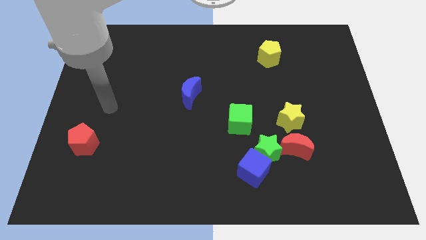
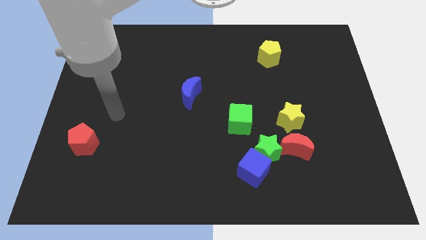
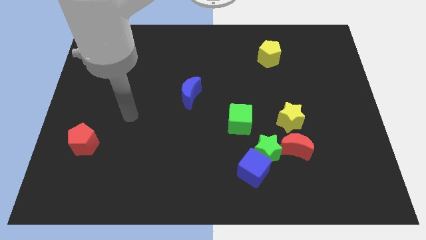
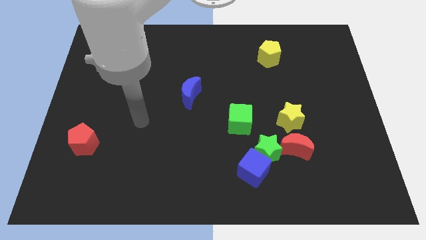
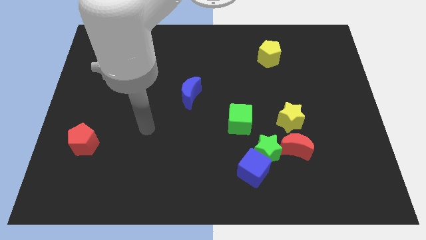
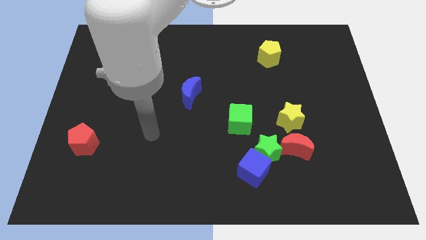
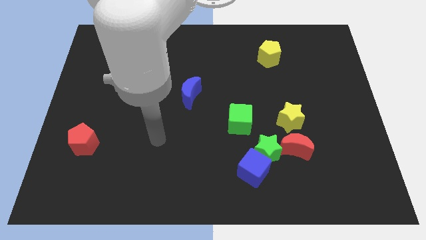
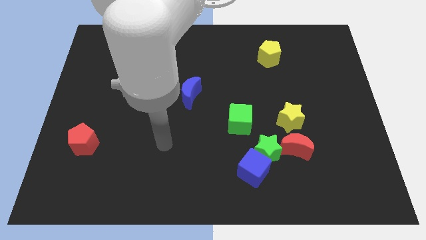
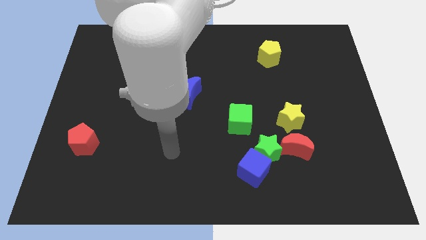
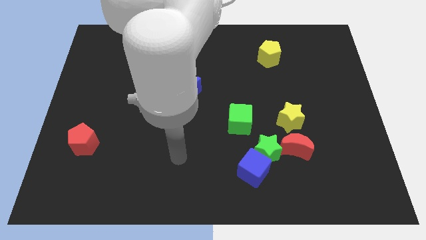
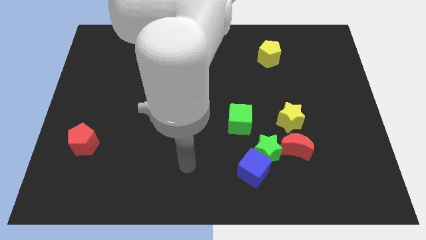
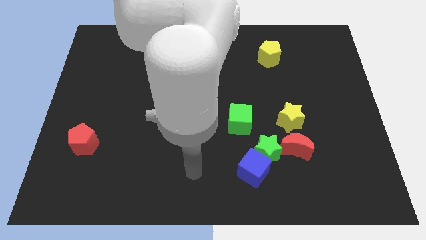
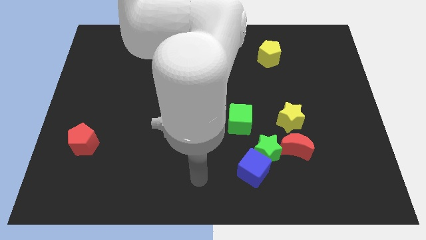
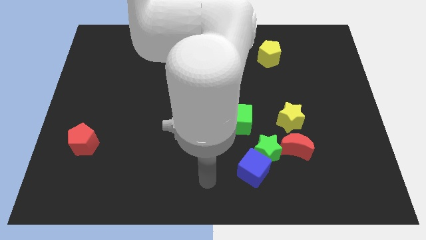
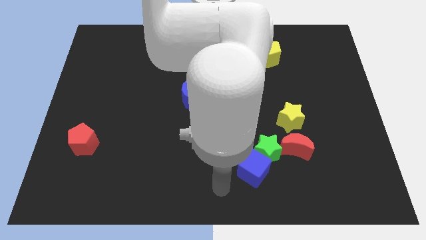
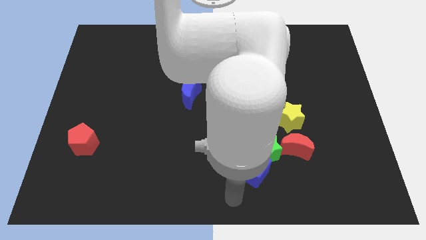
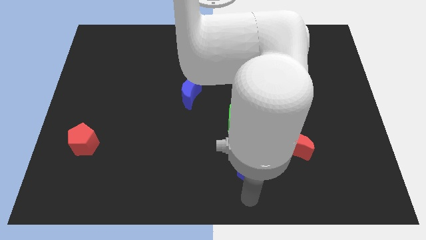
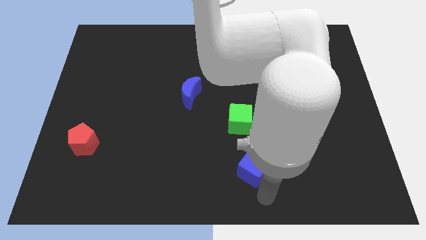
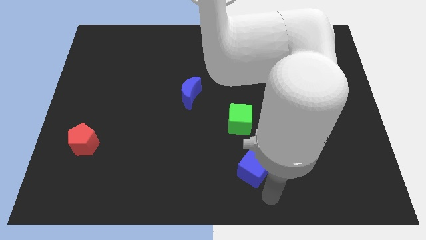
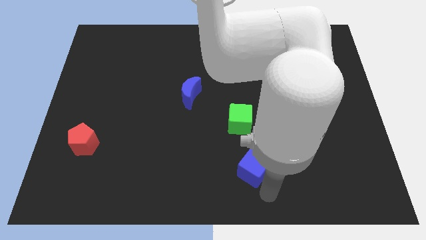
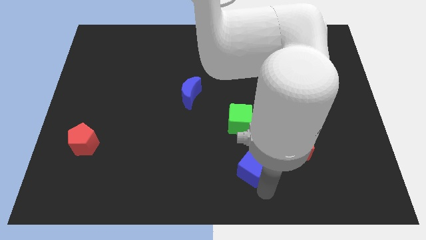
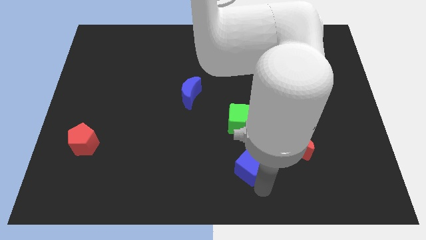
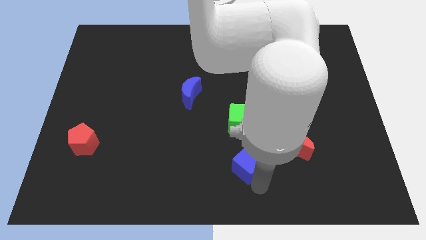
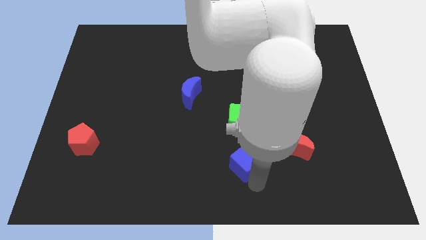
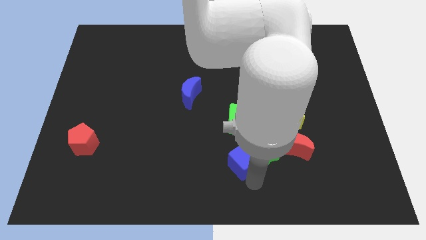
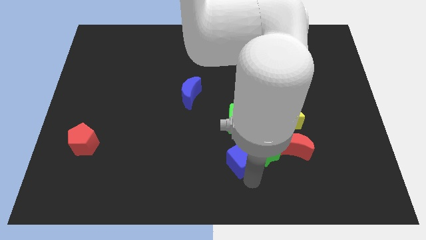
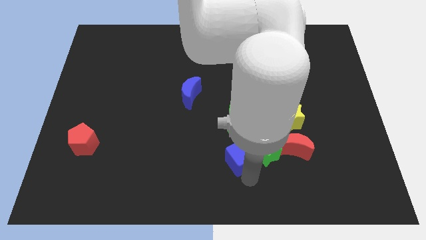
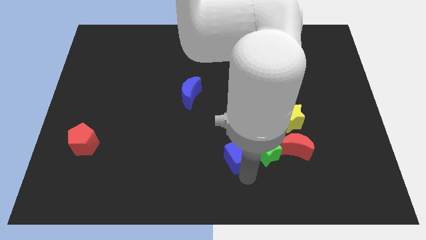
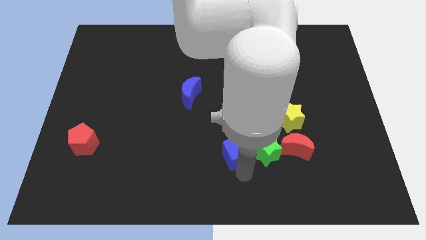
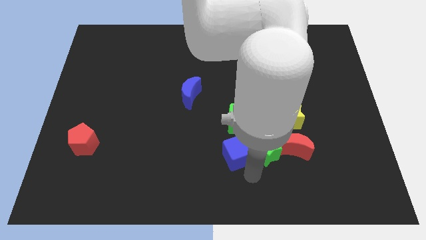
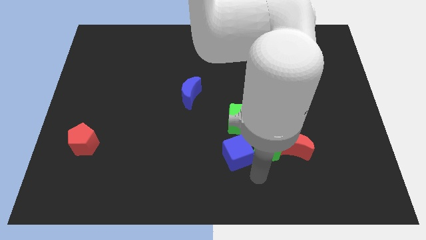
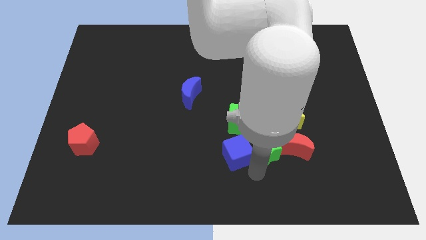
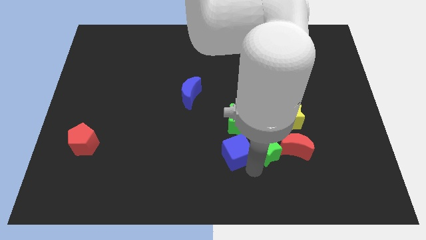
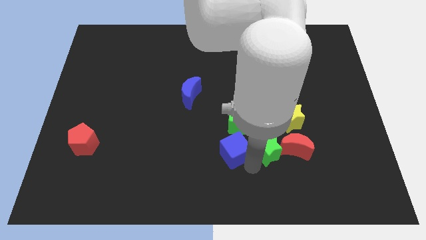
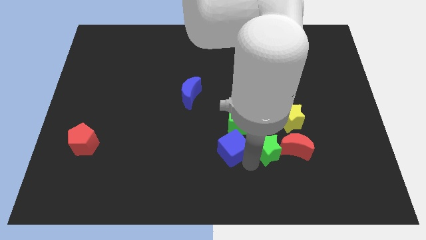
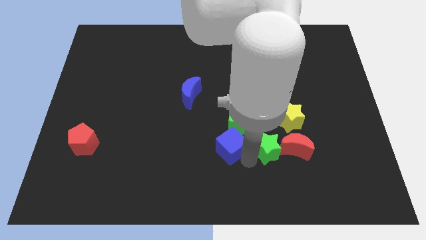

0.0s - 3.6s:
slide the blue cube upwards and left a little bit

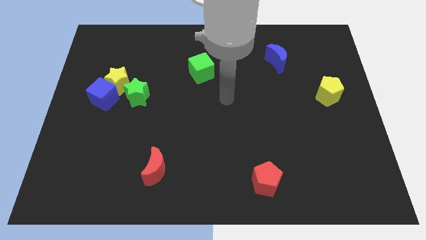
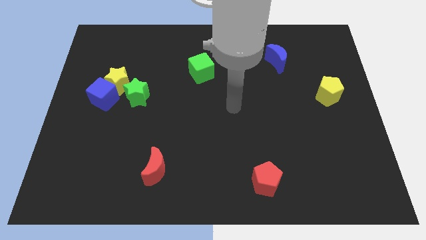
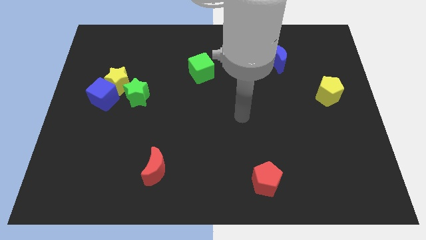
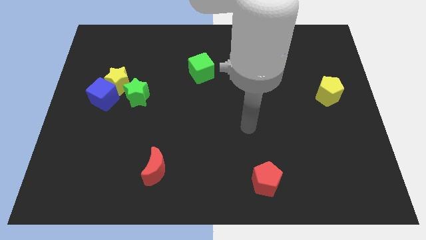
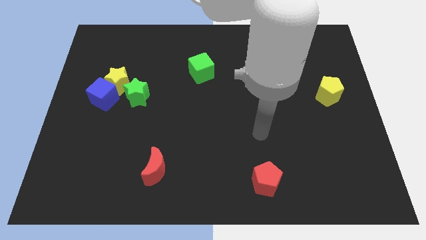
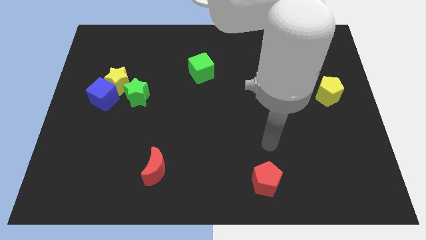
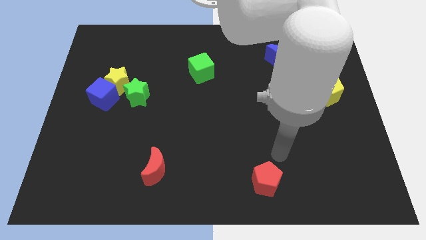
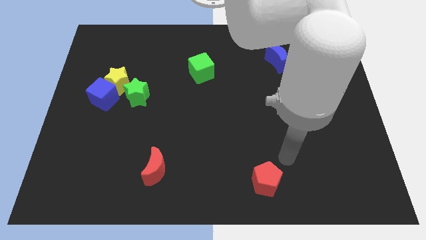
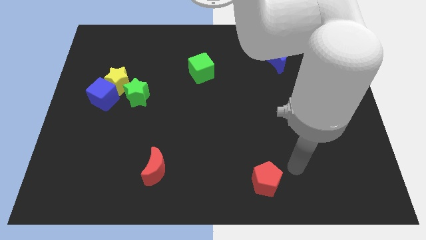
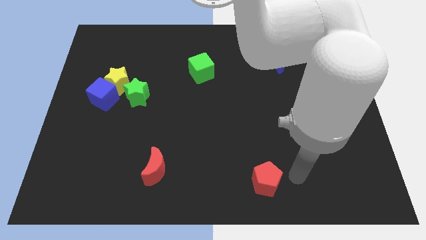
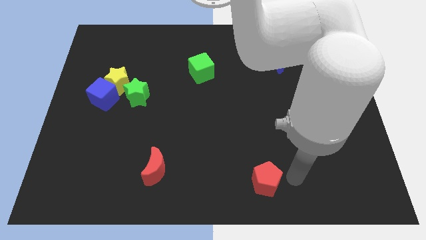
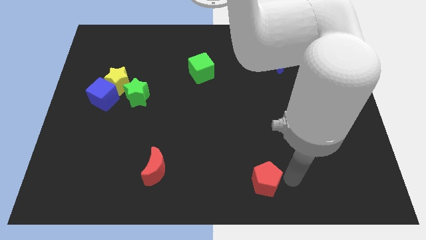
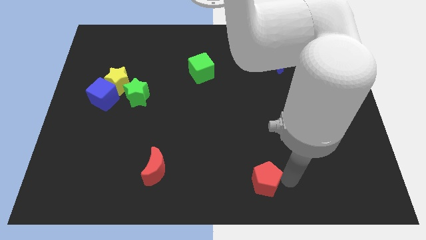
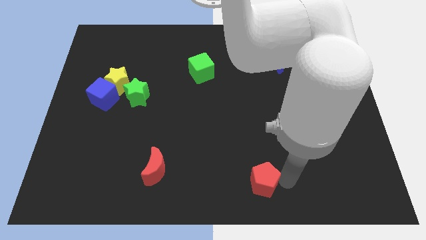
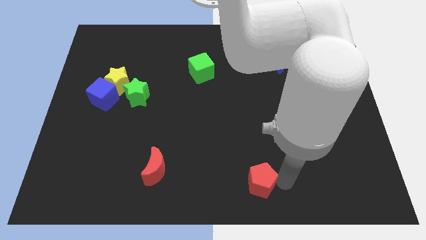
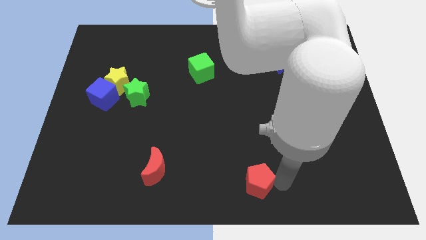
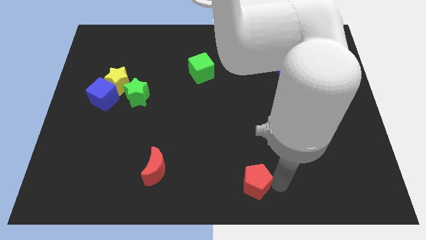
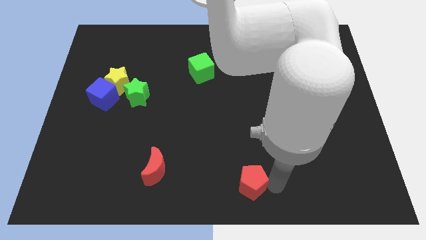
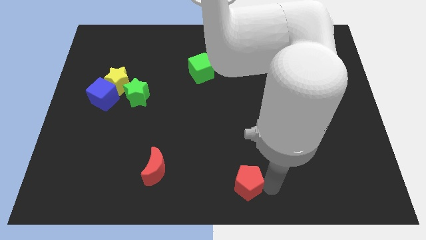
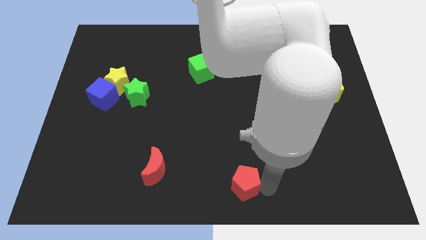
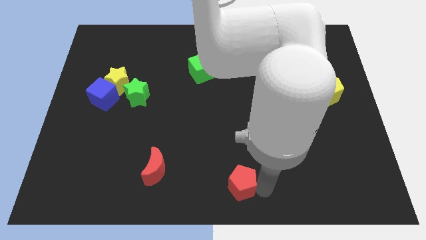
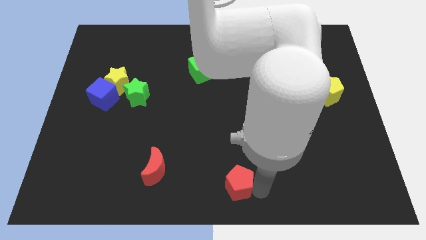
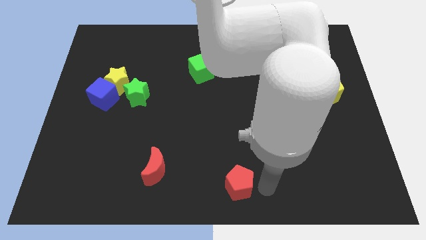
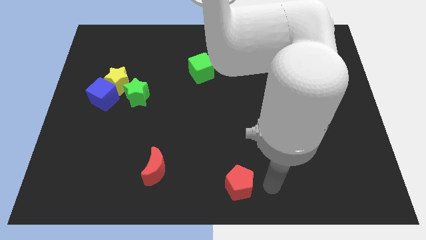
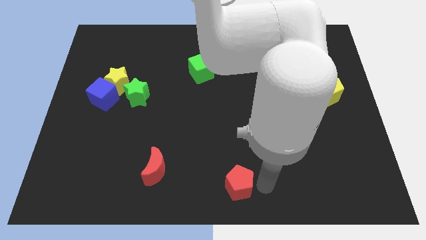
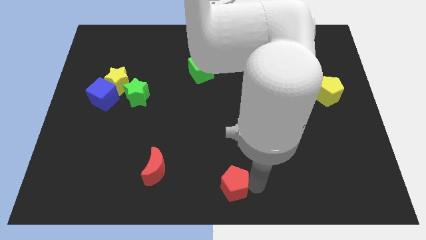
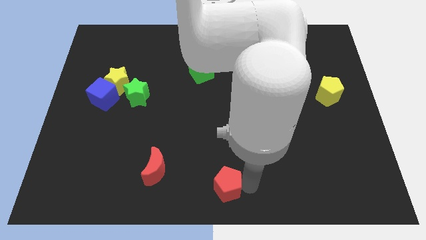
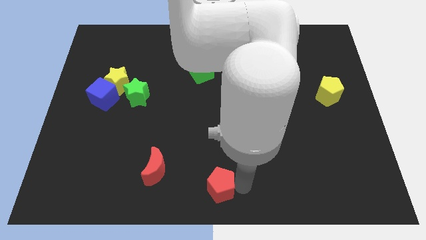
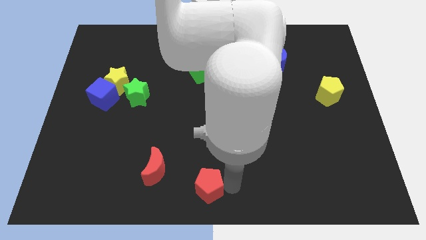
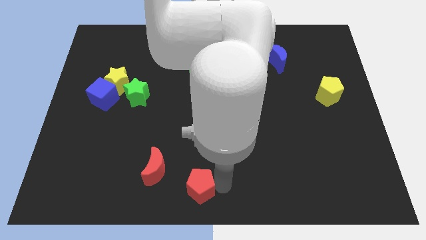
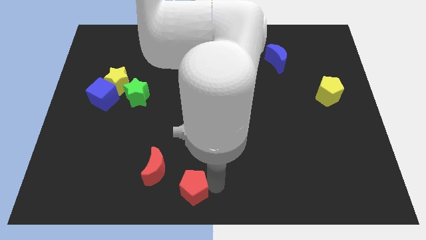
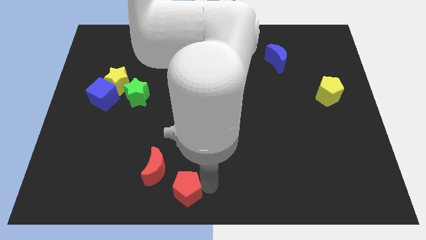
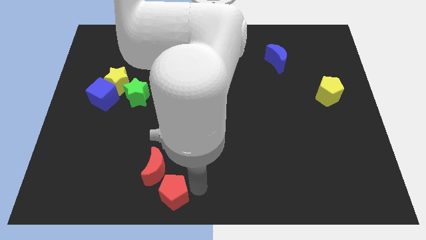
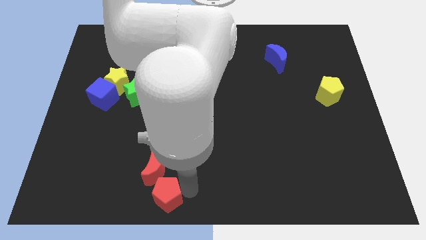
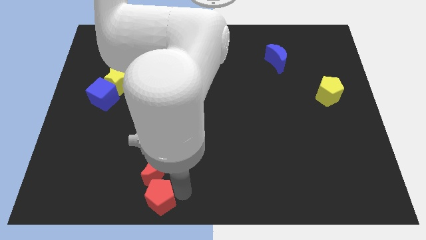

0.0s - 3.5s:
move the red pentagon to the left

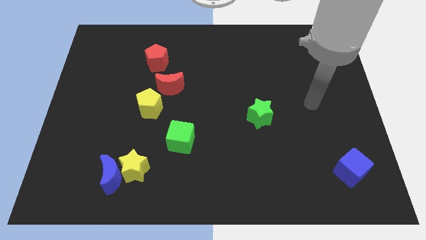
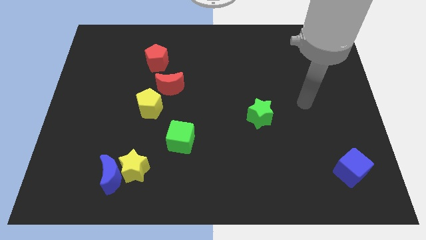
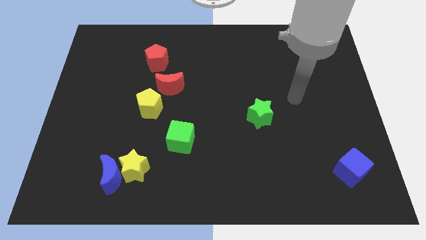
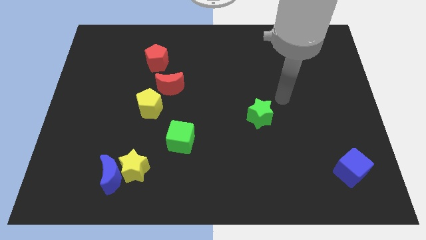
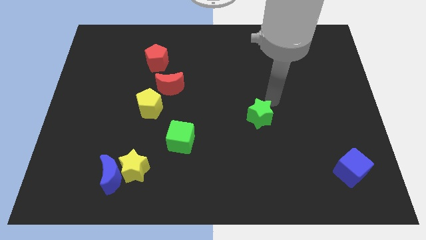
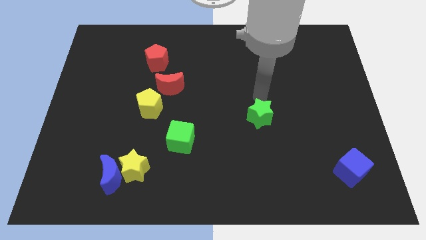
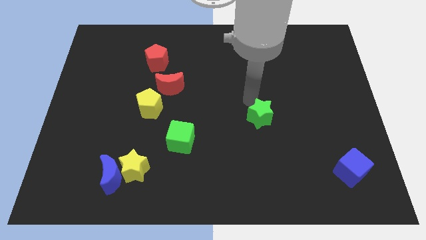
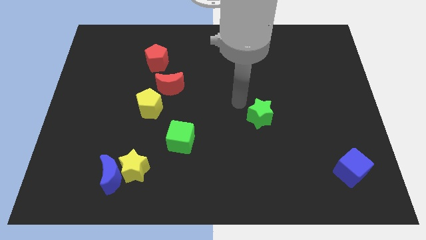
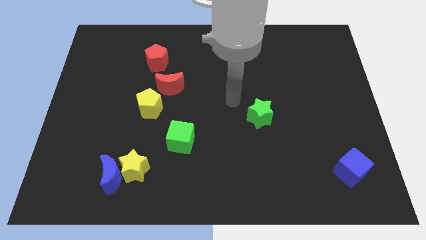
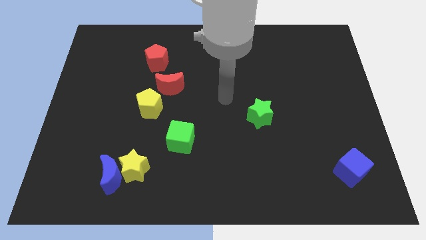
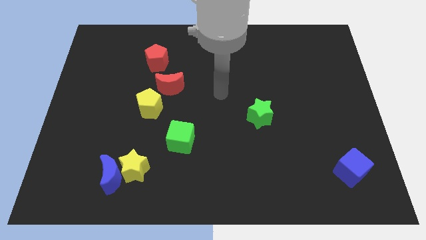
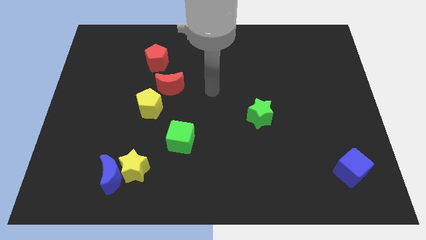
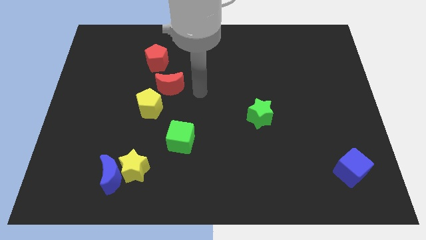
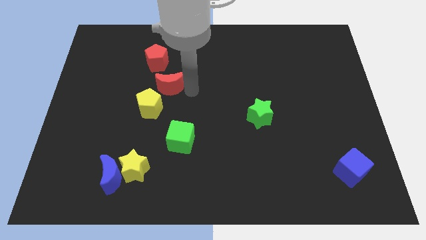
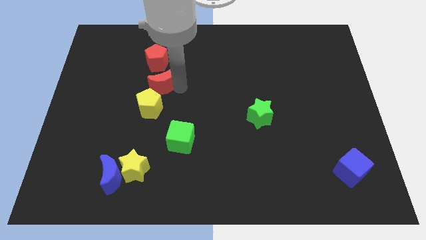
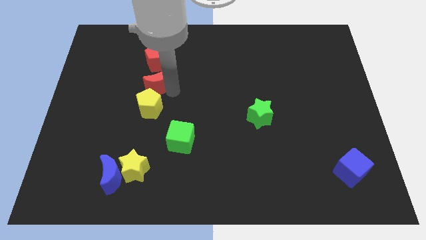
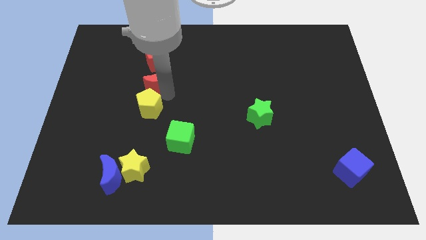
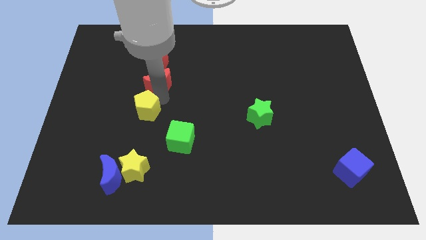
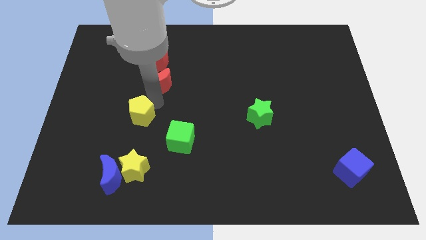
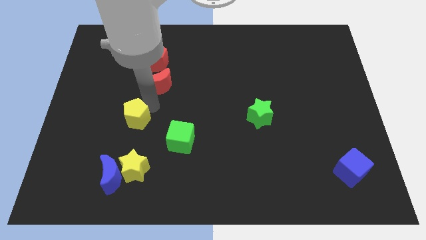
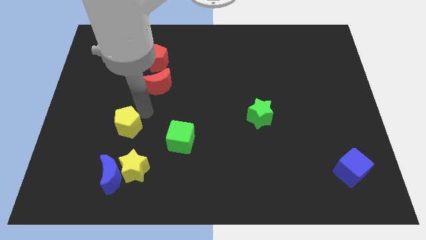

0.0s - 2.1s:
slide the yellow pentagon diagonally downwards and left a little
